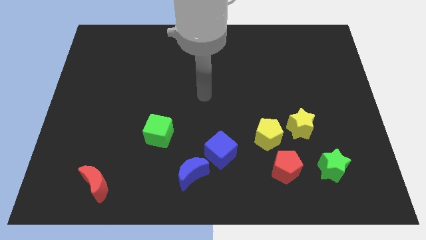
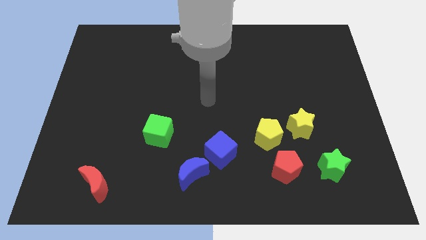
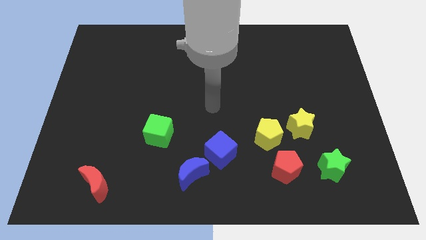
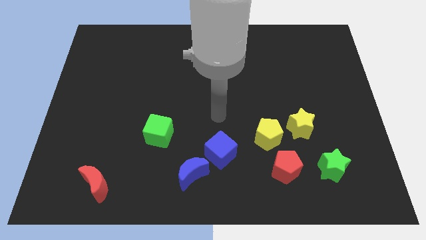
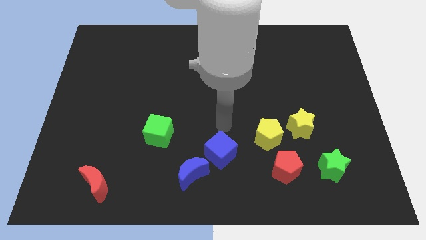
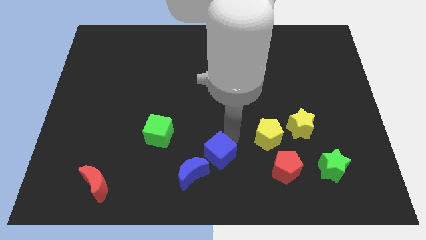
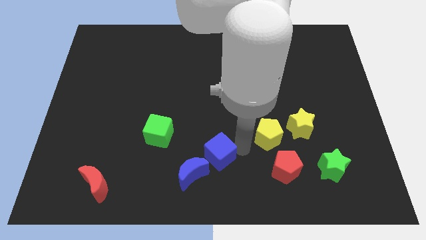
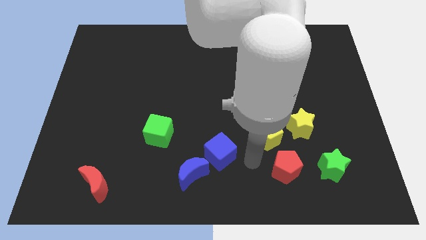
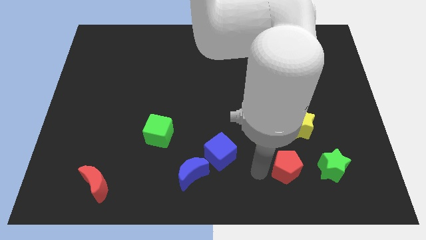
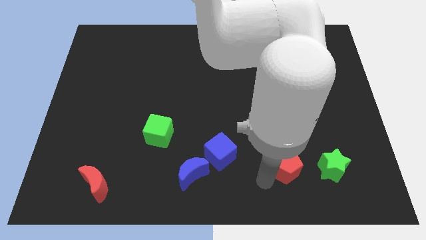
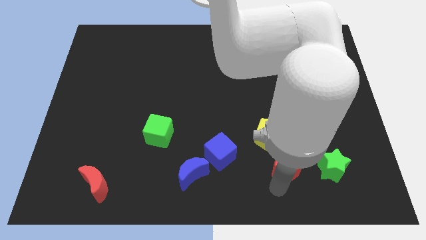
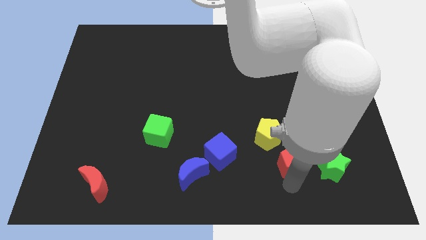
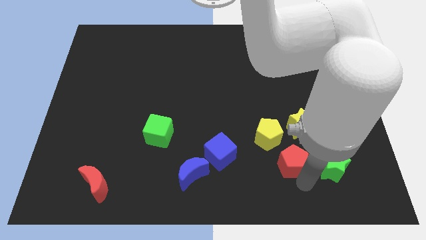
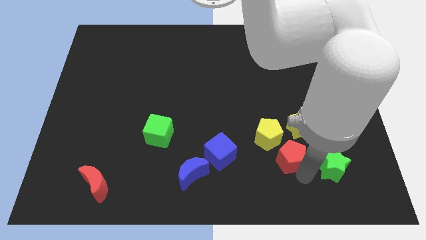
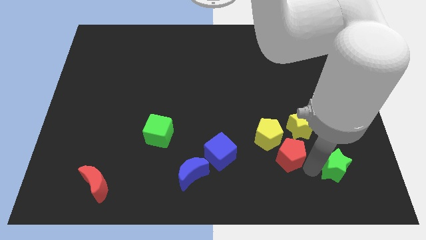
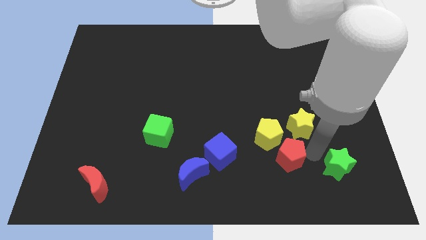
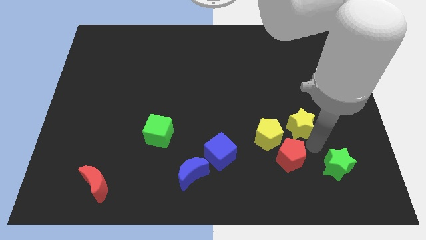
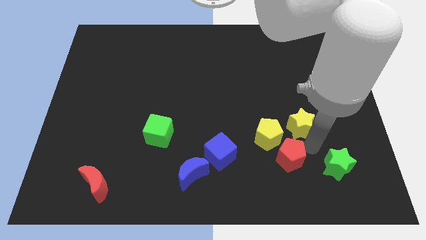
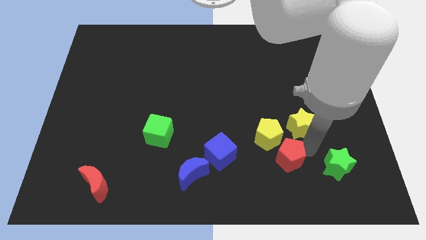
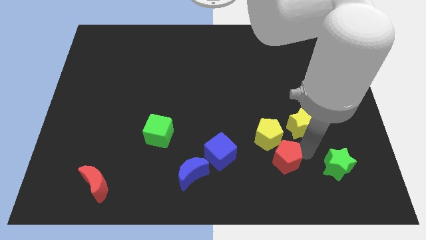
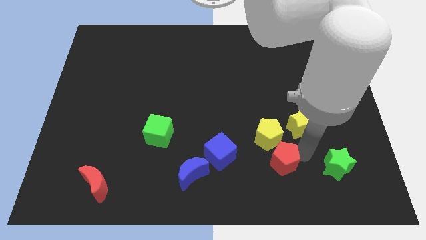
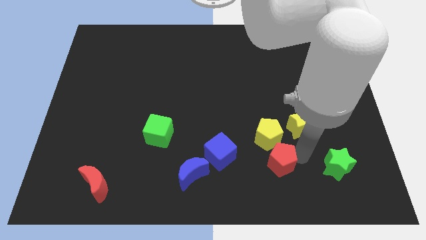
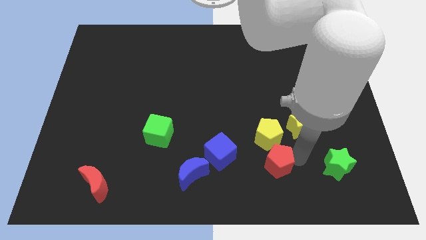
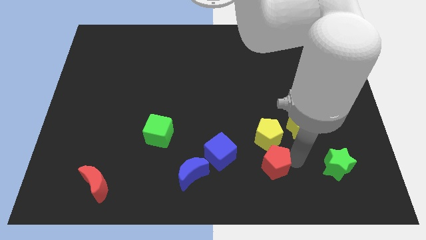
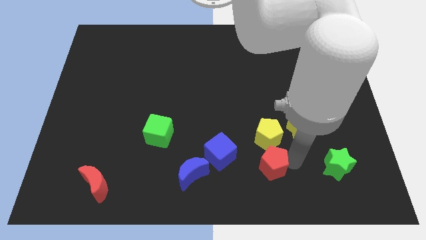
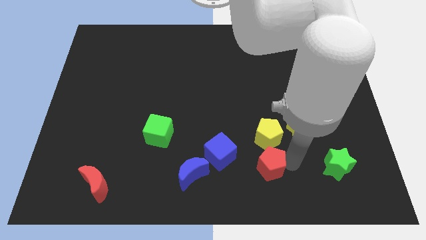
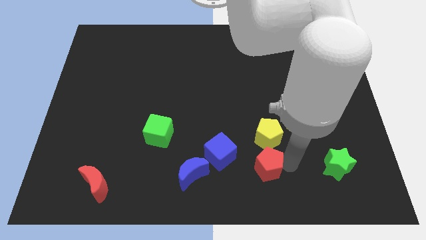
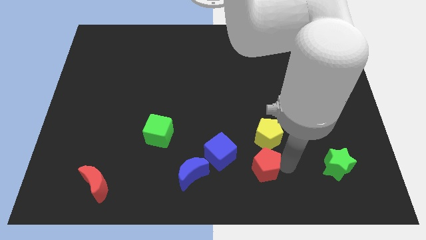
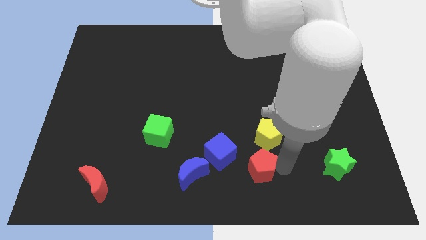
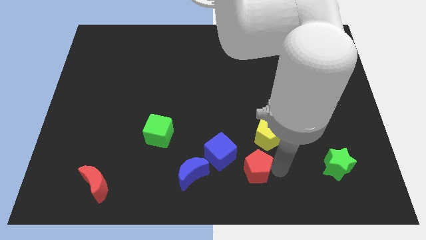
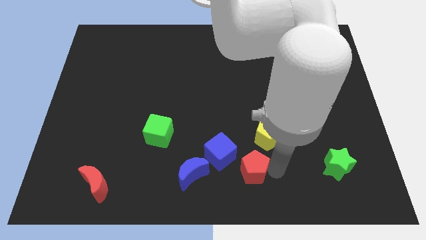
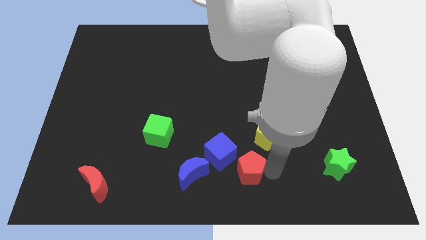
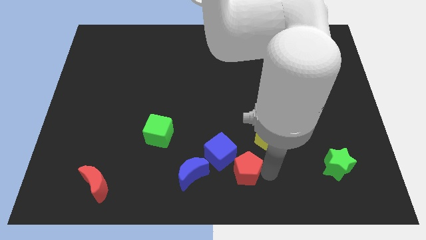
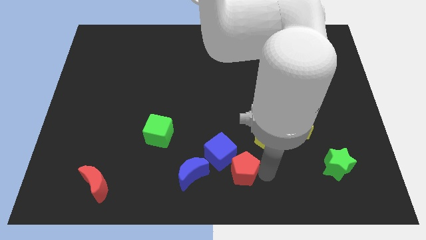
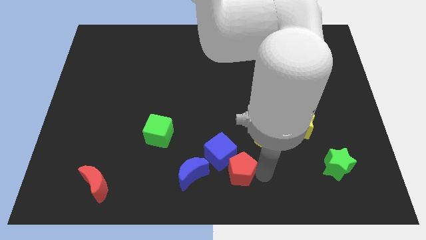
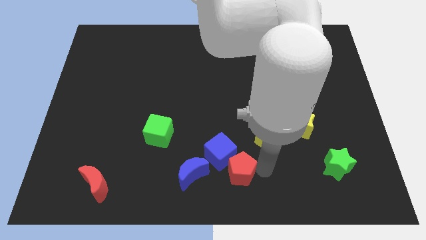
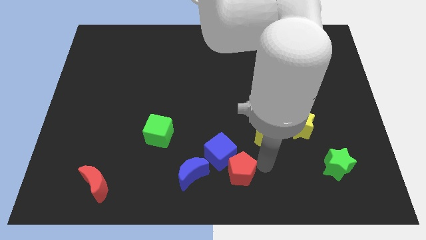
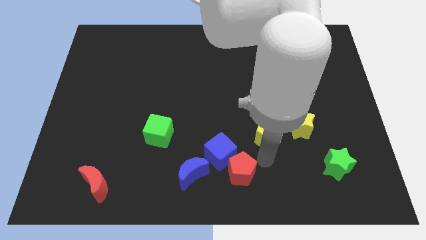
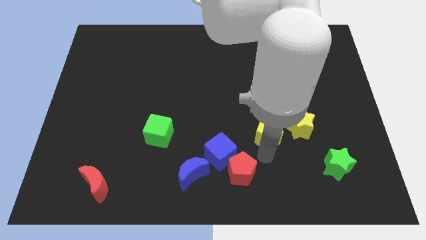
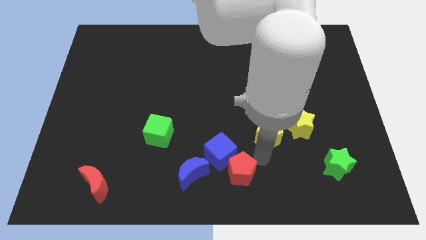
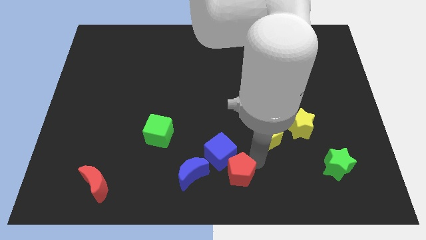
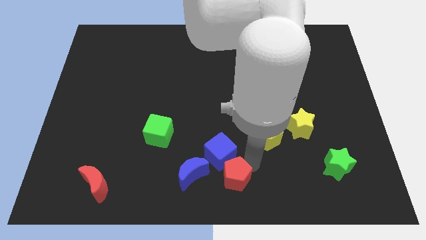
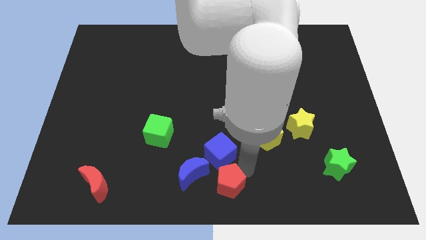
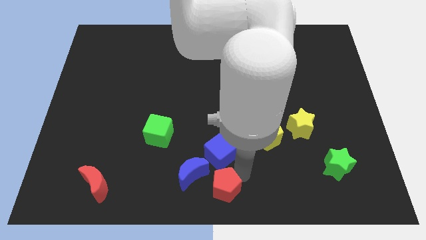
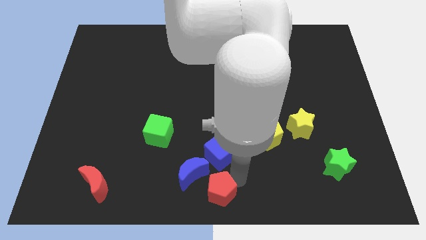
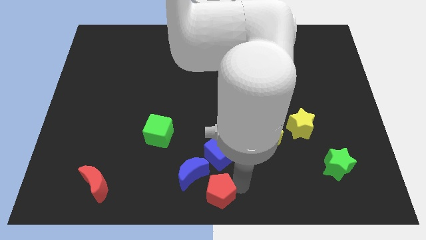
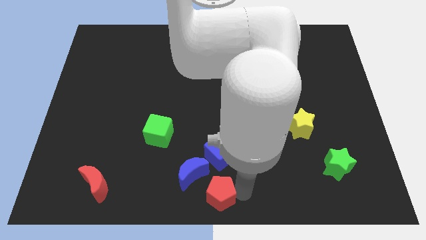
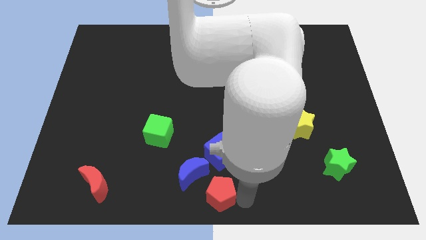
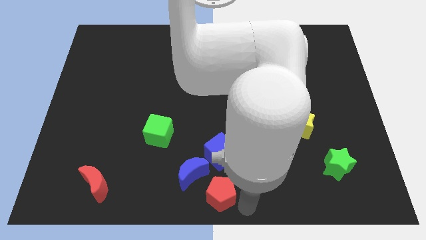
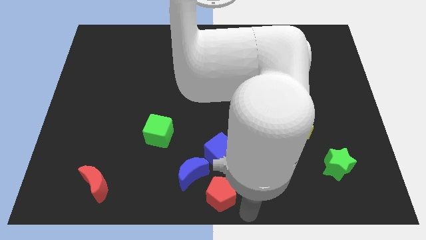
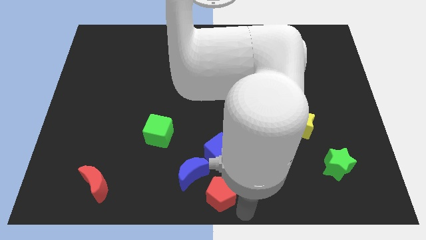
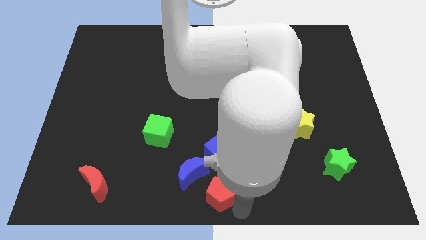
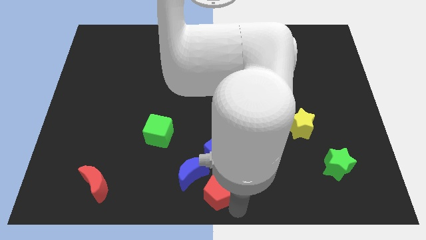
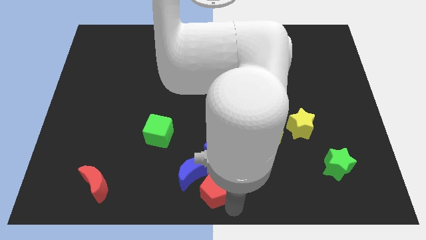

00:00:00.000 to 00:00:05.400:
move the red pentagon close to the blue moon

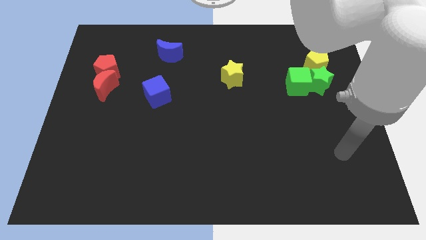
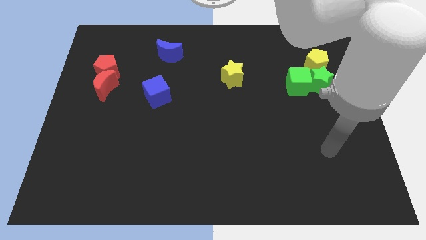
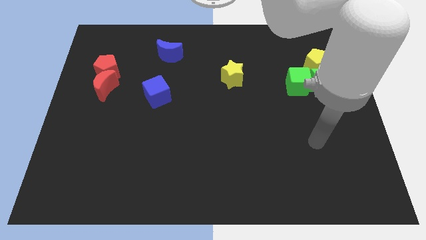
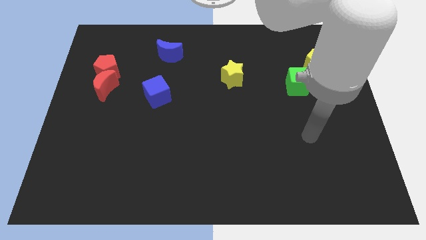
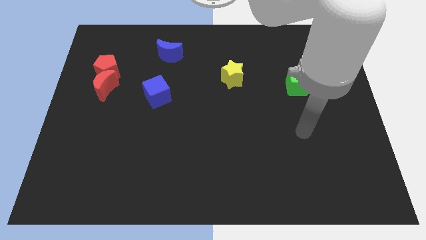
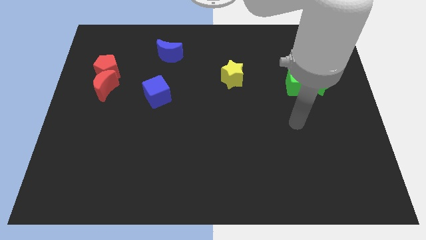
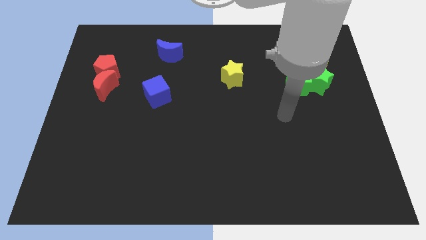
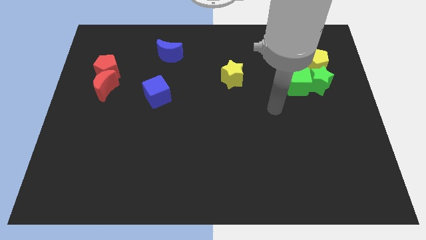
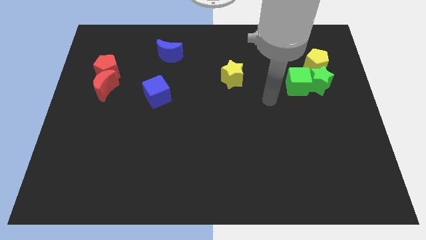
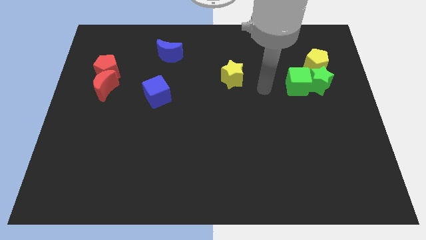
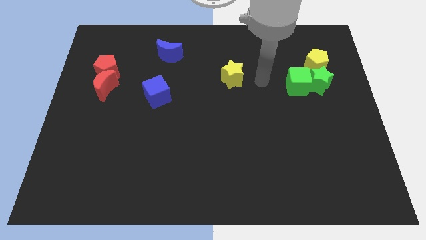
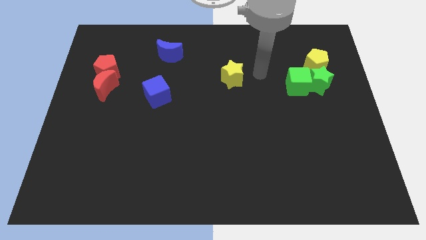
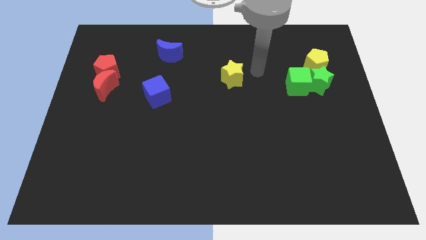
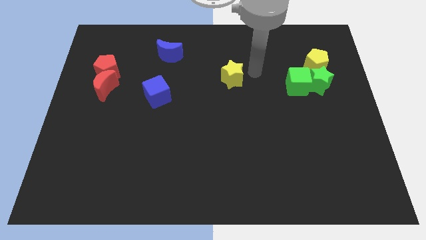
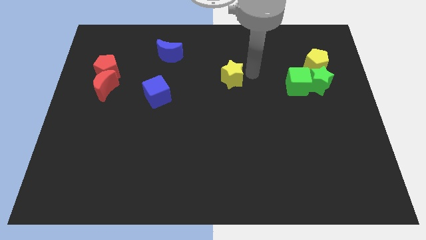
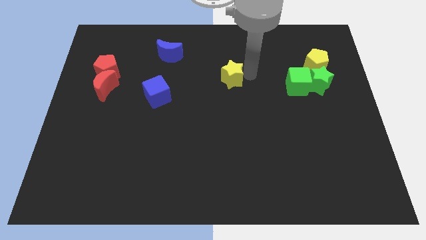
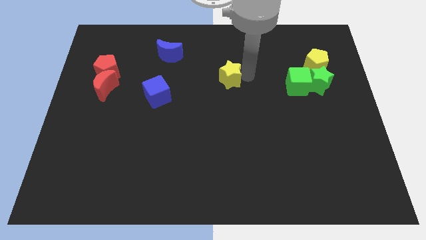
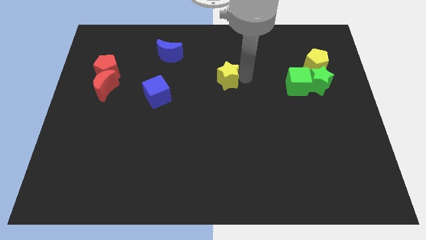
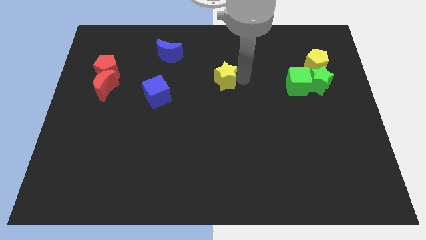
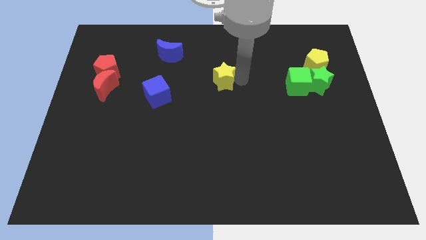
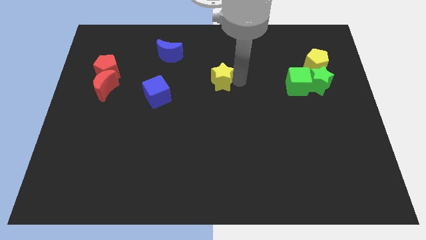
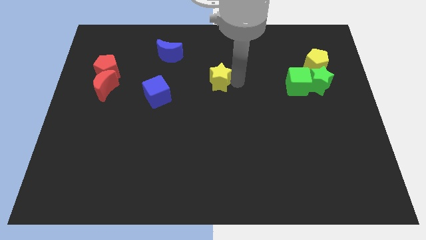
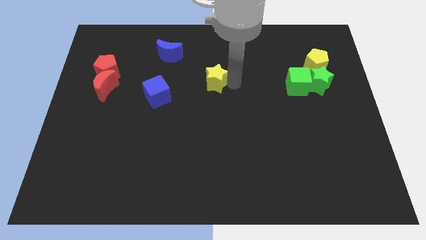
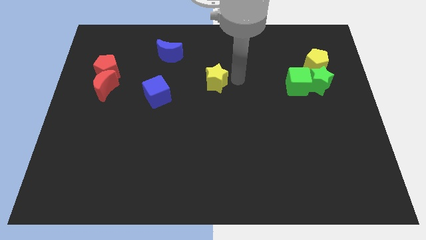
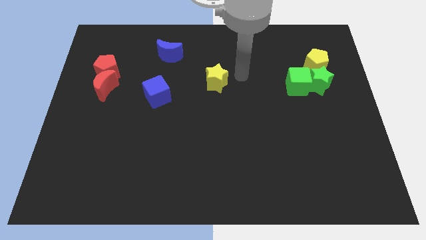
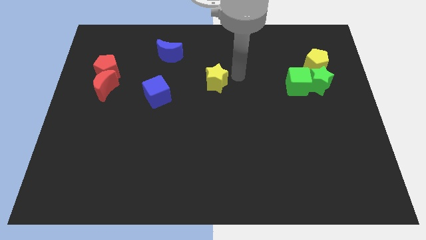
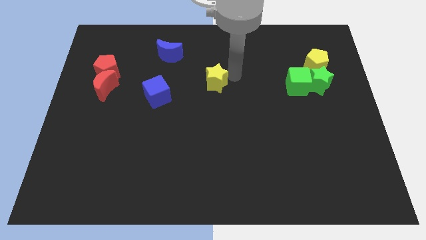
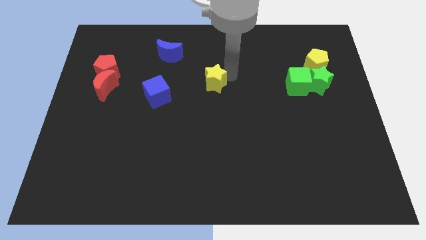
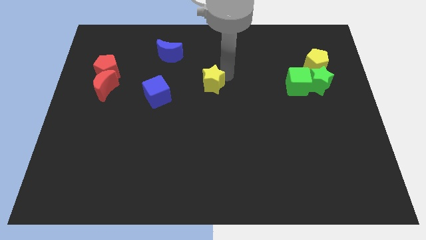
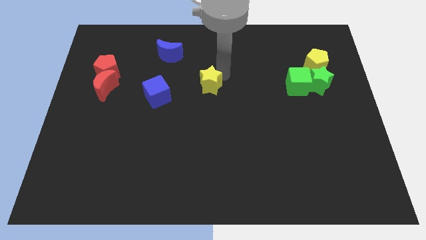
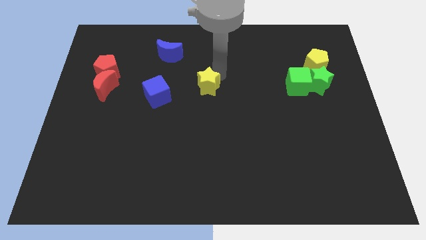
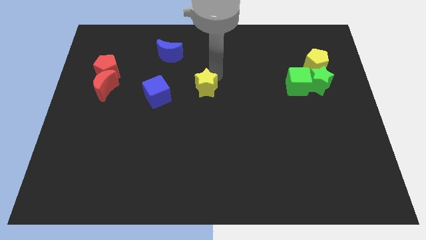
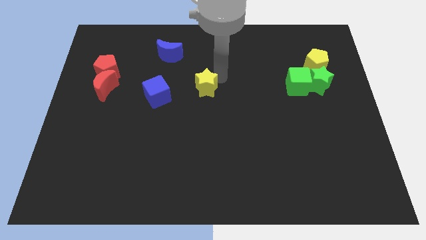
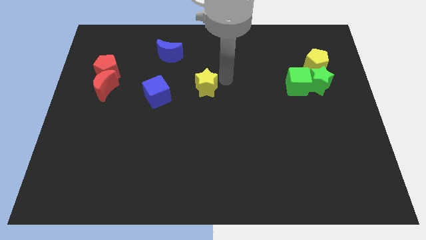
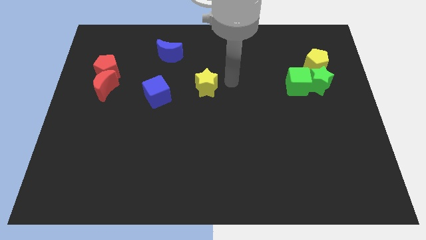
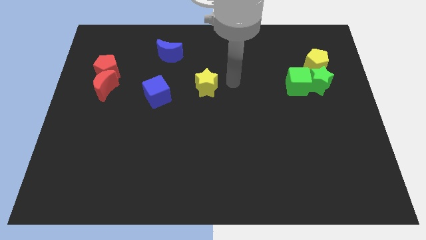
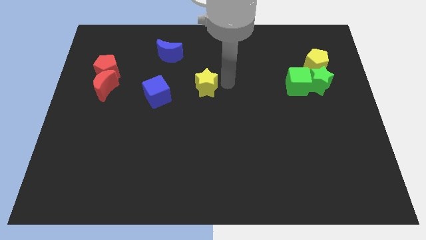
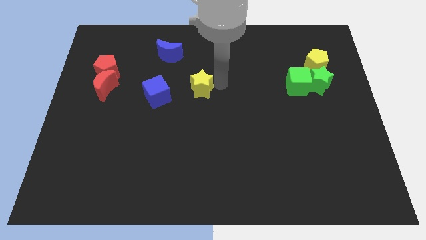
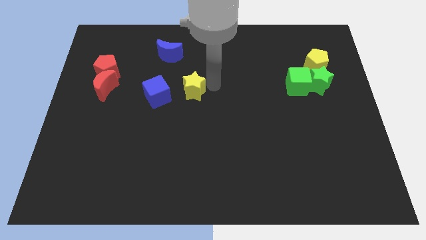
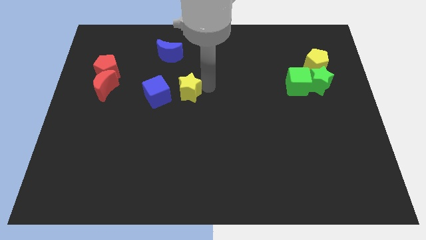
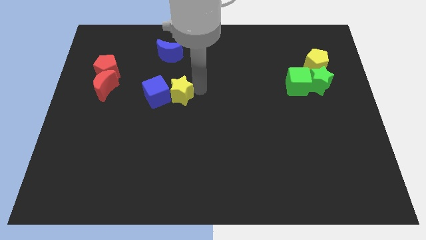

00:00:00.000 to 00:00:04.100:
slide the yellow star to the blue cube
